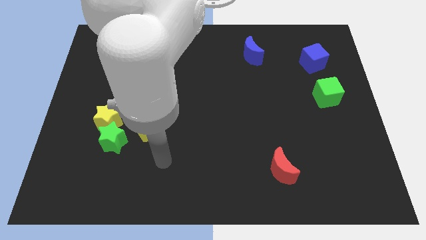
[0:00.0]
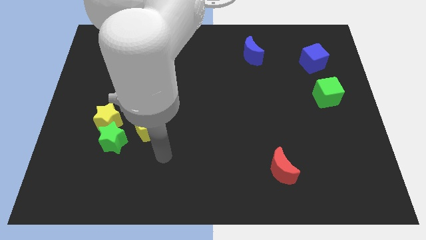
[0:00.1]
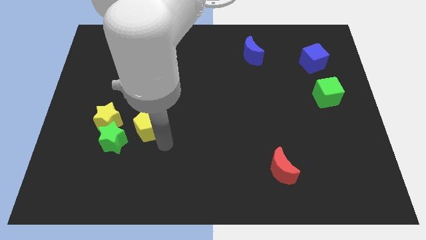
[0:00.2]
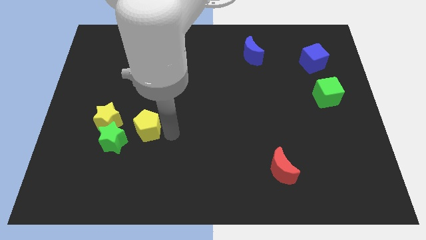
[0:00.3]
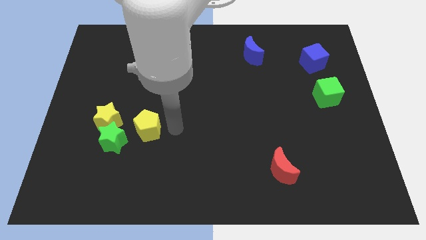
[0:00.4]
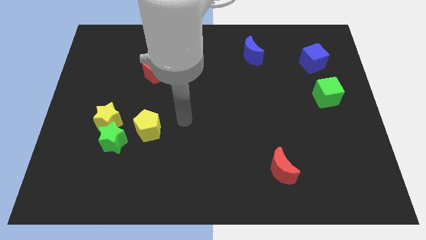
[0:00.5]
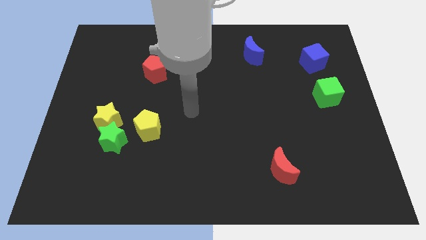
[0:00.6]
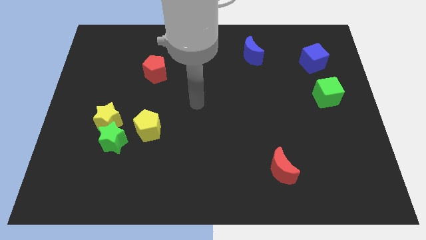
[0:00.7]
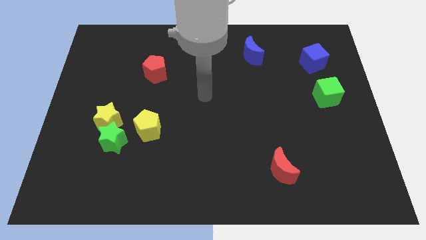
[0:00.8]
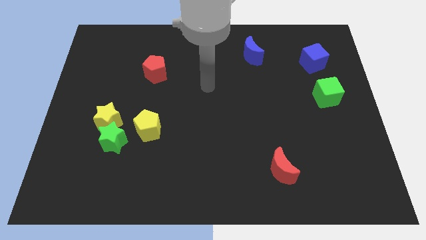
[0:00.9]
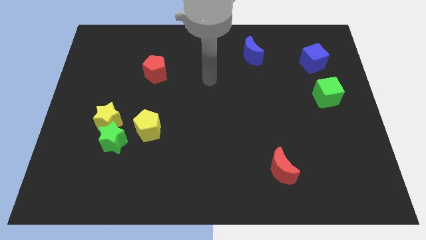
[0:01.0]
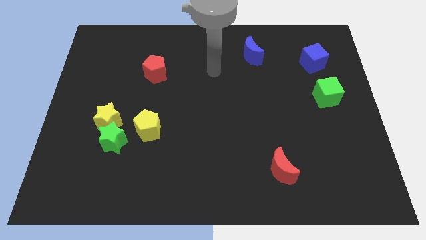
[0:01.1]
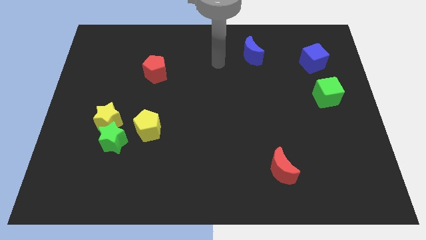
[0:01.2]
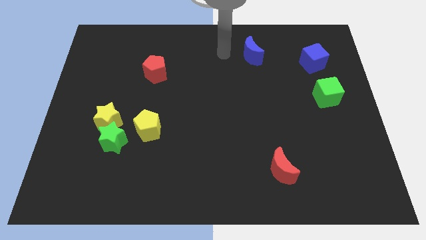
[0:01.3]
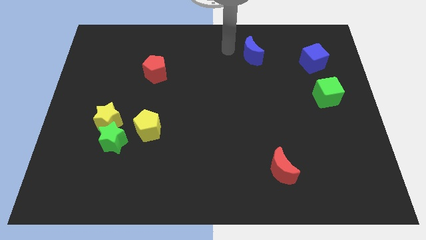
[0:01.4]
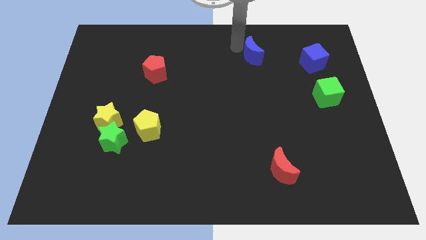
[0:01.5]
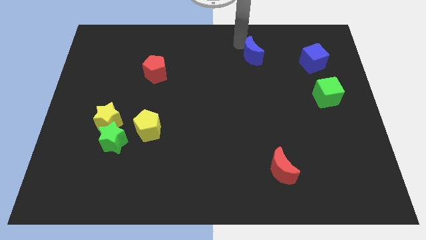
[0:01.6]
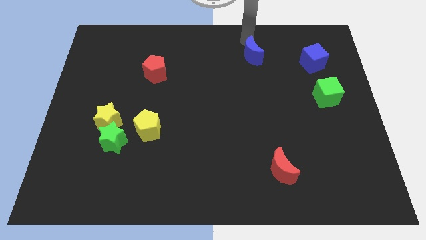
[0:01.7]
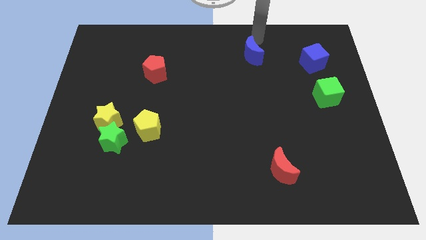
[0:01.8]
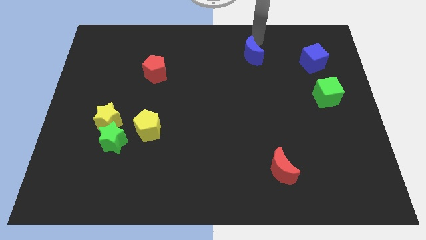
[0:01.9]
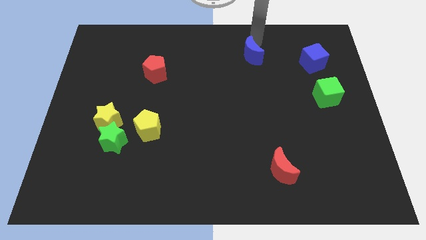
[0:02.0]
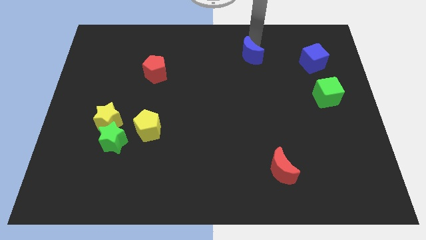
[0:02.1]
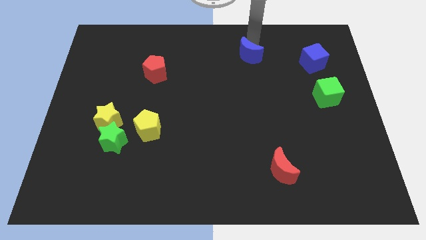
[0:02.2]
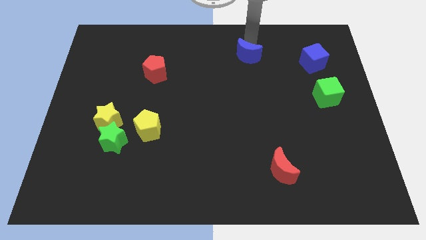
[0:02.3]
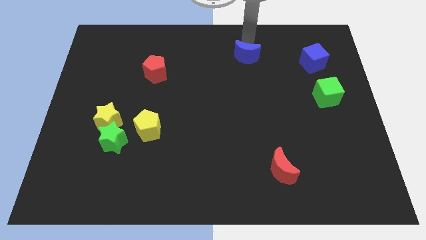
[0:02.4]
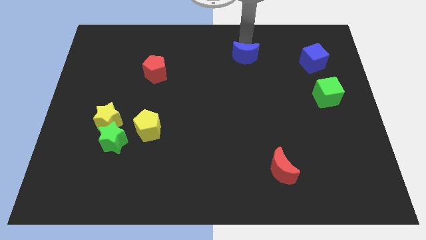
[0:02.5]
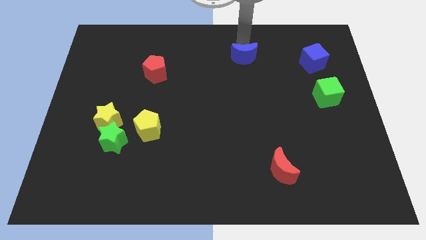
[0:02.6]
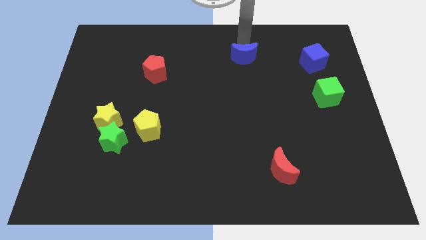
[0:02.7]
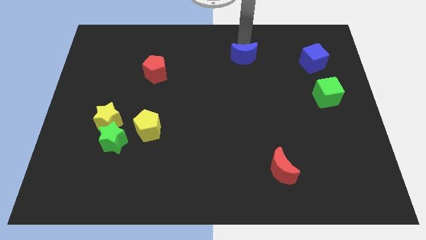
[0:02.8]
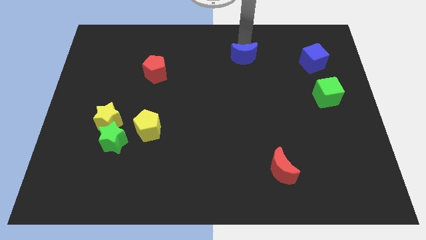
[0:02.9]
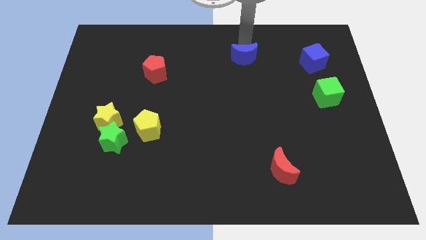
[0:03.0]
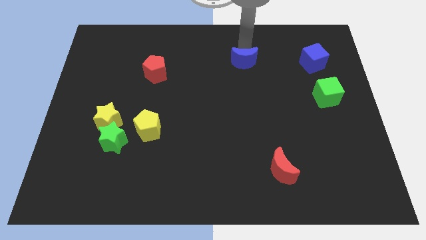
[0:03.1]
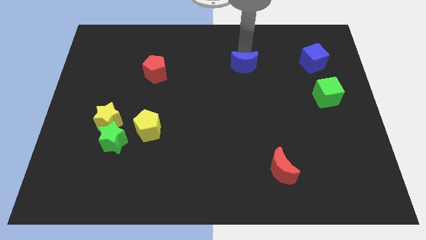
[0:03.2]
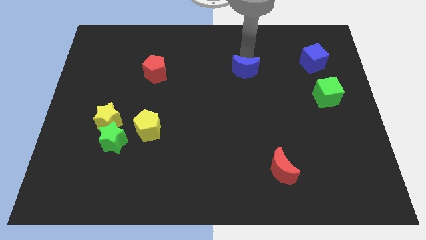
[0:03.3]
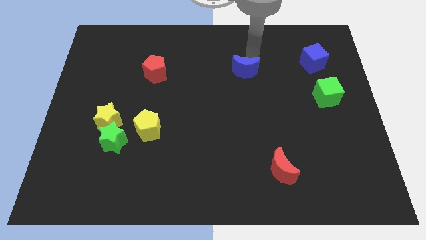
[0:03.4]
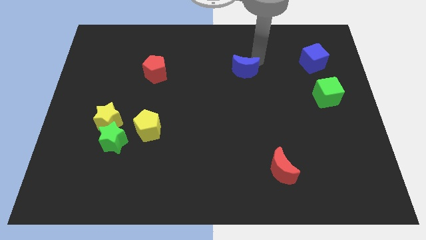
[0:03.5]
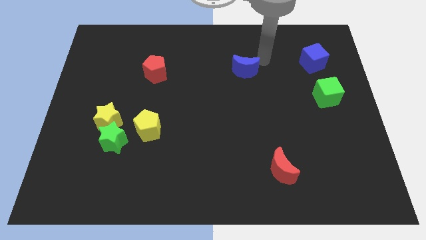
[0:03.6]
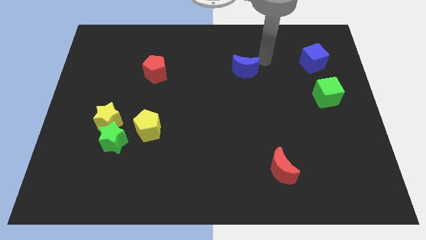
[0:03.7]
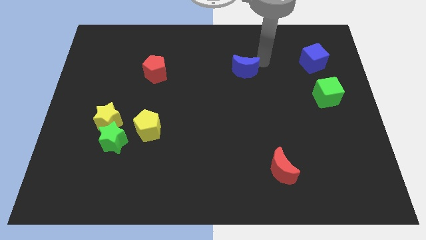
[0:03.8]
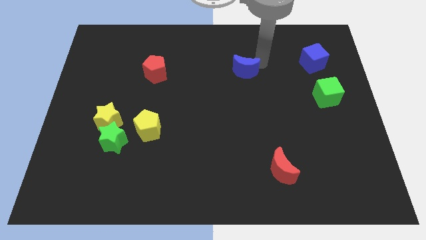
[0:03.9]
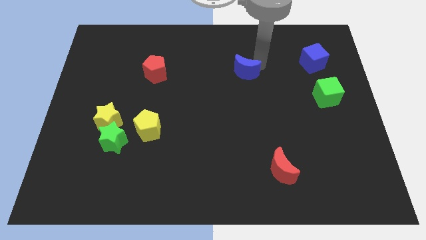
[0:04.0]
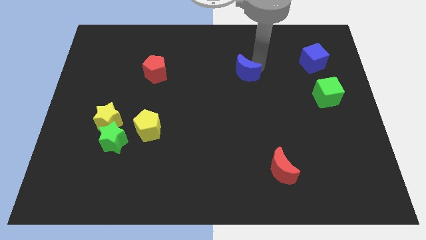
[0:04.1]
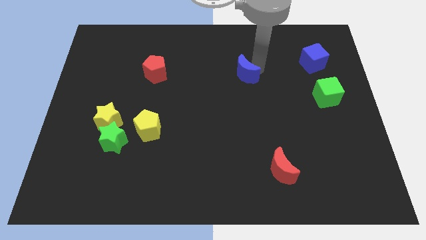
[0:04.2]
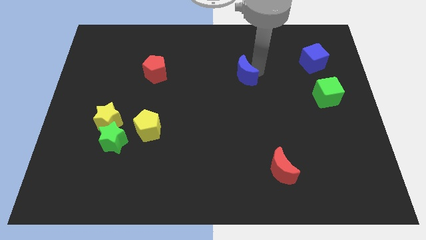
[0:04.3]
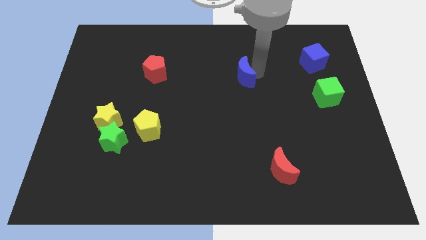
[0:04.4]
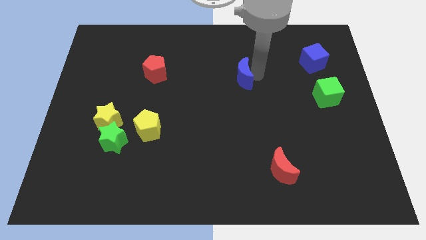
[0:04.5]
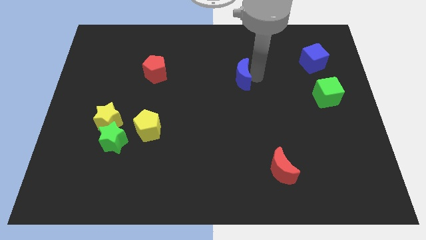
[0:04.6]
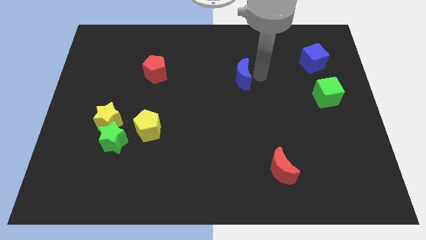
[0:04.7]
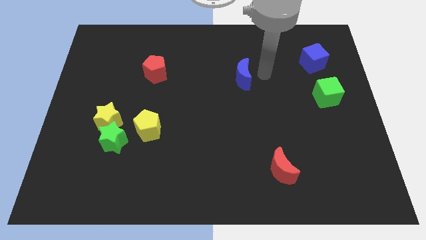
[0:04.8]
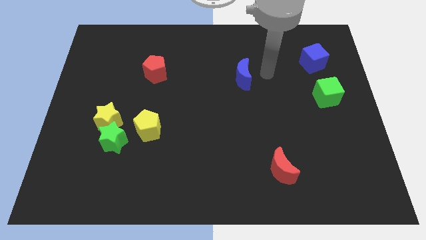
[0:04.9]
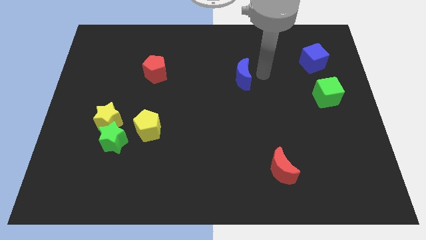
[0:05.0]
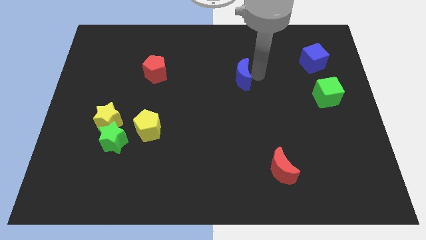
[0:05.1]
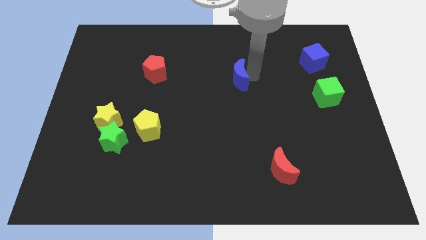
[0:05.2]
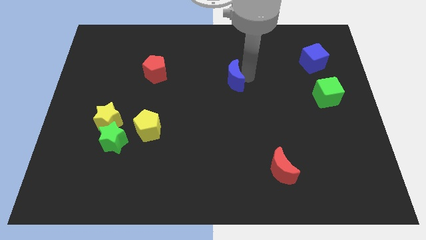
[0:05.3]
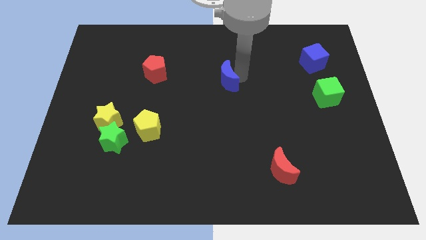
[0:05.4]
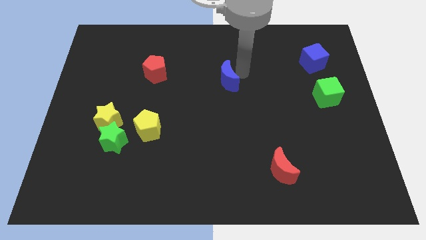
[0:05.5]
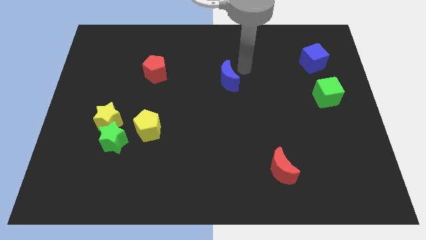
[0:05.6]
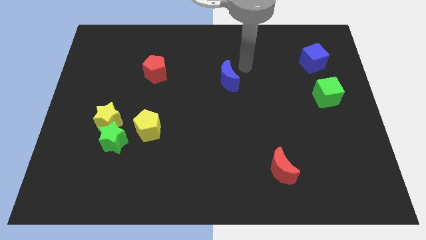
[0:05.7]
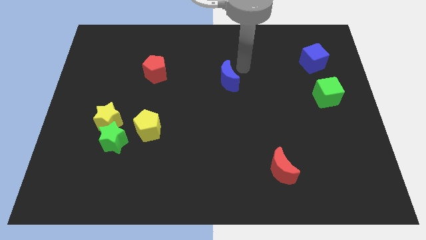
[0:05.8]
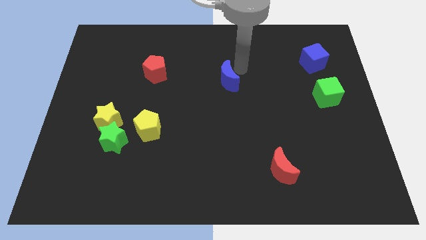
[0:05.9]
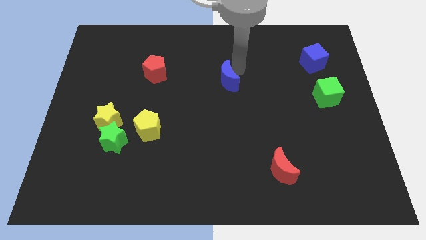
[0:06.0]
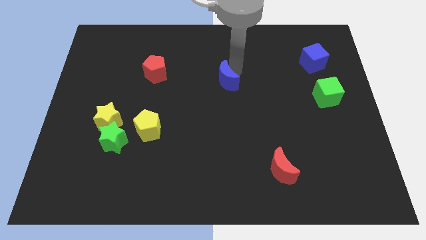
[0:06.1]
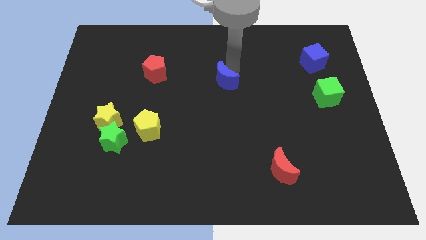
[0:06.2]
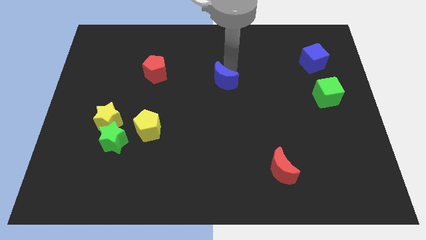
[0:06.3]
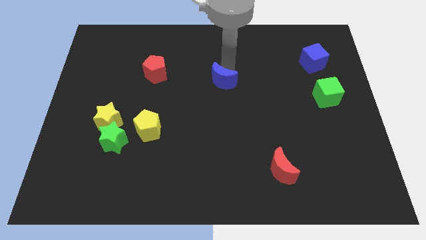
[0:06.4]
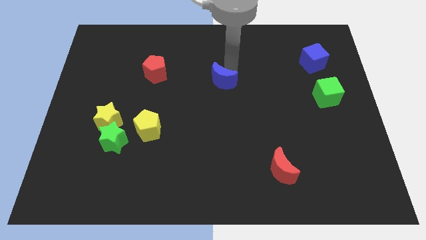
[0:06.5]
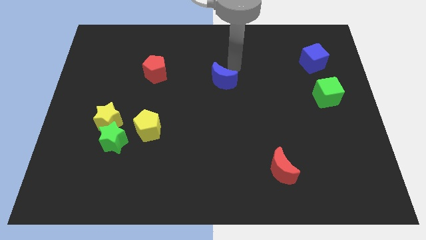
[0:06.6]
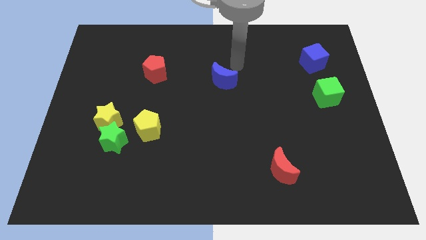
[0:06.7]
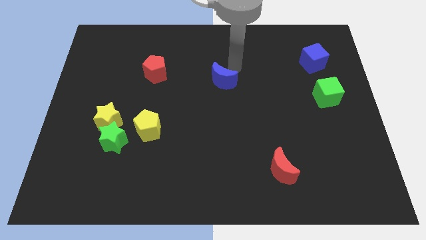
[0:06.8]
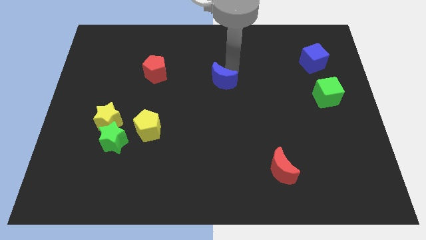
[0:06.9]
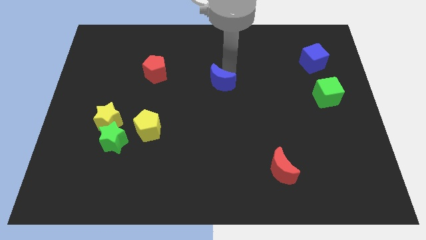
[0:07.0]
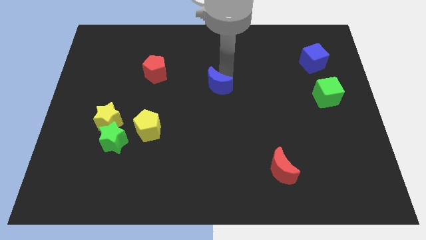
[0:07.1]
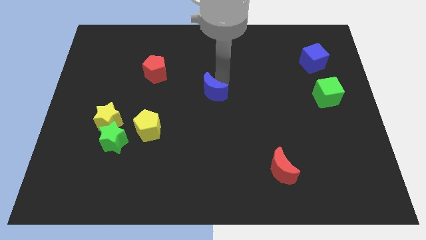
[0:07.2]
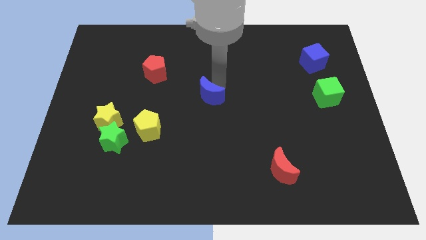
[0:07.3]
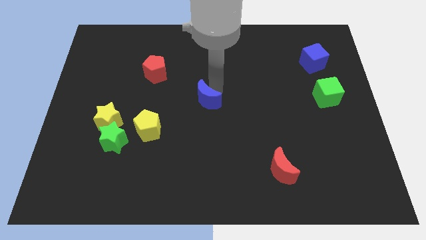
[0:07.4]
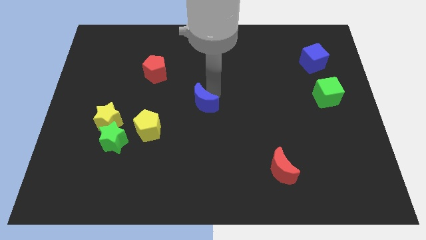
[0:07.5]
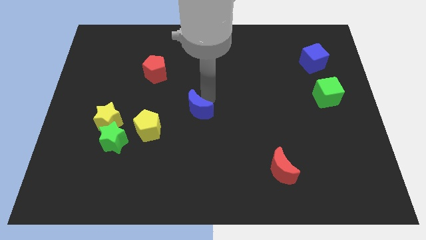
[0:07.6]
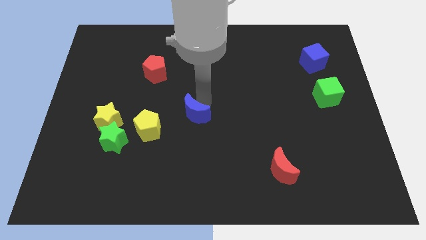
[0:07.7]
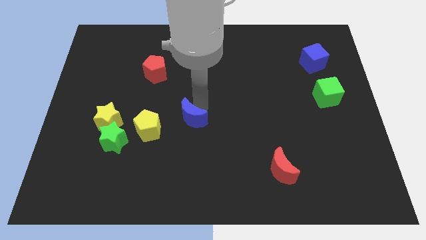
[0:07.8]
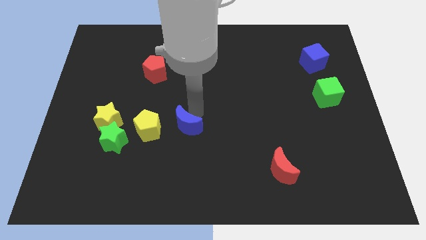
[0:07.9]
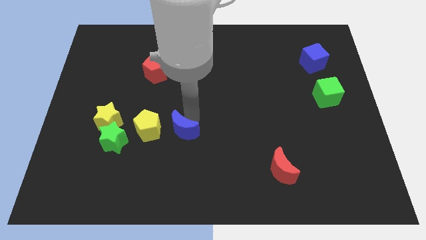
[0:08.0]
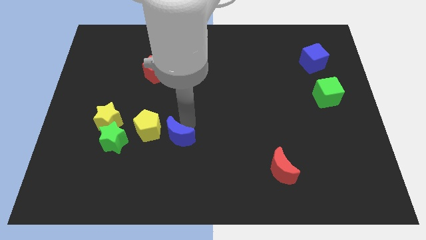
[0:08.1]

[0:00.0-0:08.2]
put the blue moon diagonally down and to the right of the yellow pentagon
